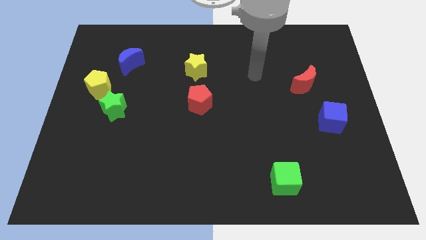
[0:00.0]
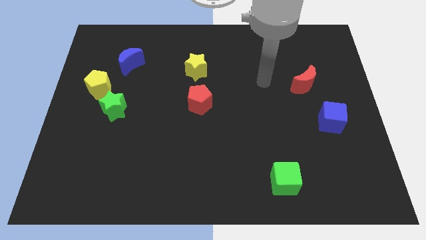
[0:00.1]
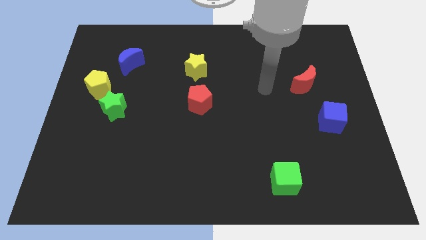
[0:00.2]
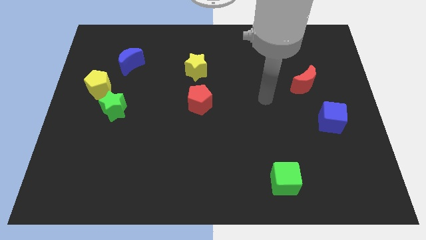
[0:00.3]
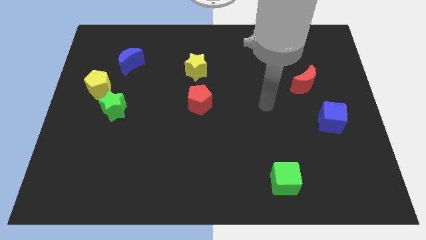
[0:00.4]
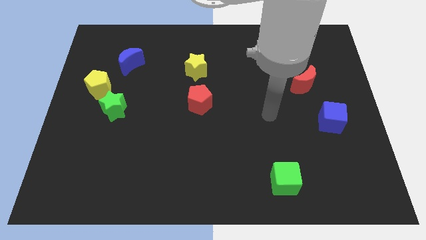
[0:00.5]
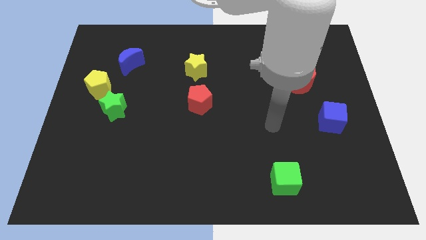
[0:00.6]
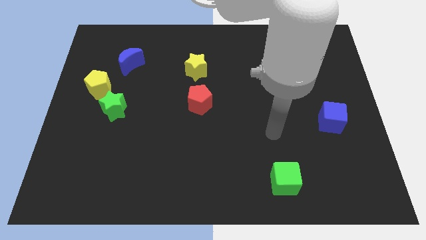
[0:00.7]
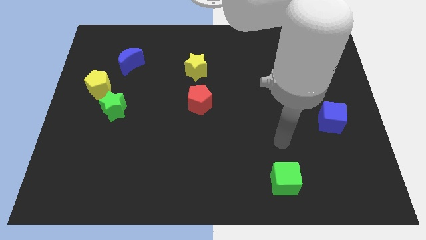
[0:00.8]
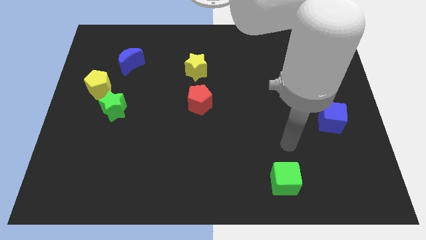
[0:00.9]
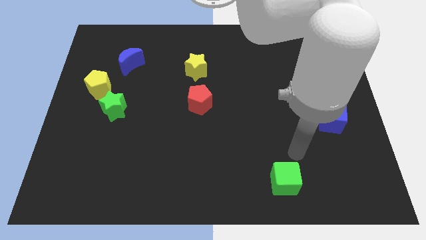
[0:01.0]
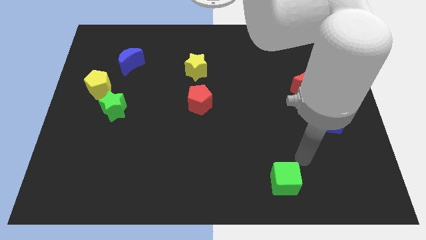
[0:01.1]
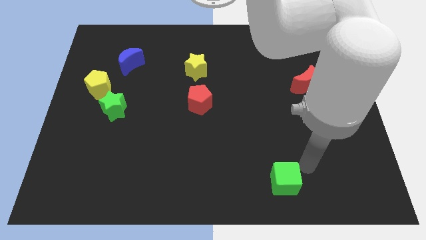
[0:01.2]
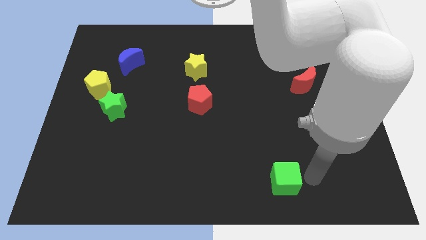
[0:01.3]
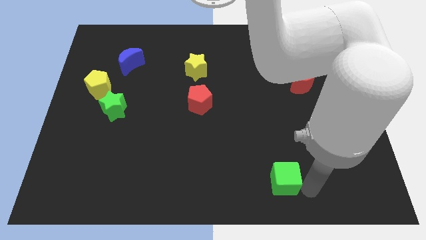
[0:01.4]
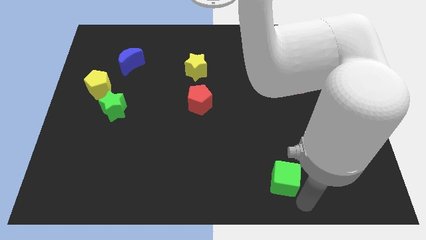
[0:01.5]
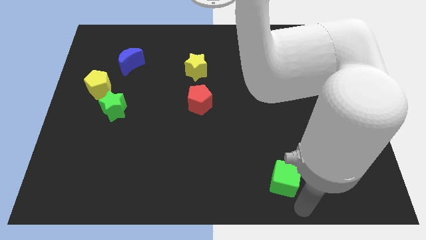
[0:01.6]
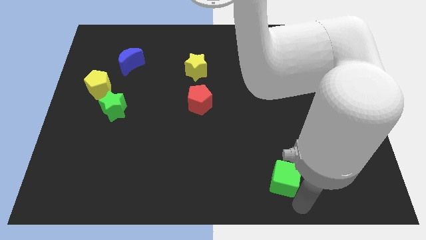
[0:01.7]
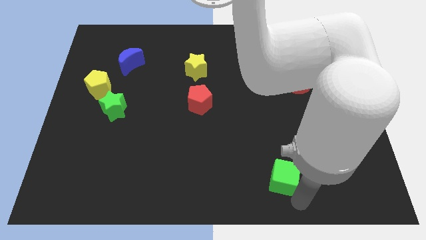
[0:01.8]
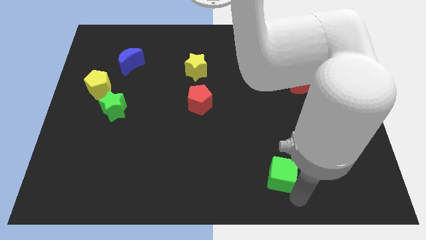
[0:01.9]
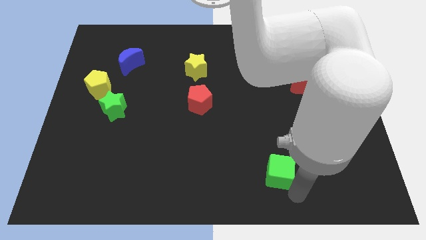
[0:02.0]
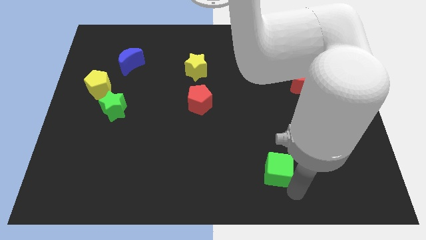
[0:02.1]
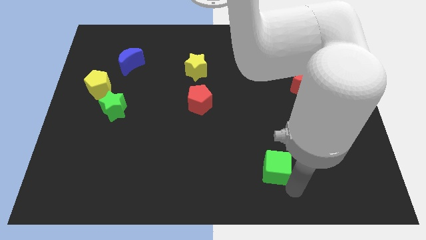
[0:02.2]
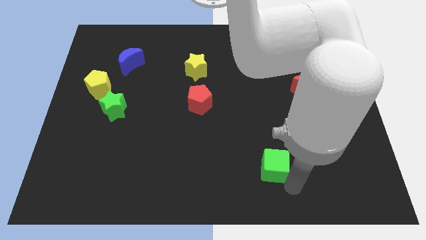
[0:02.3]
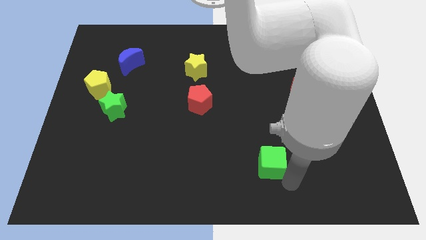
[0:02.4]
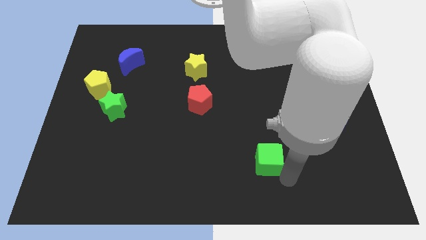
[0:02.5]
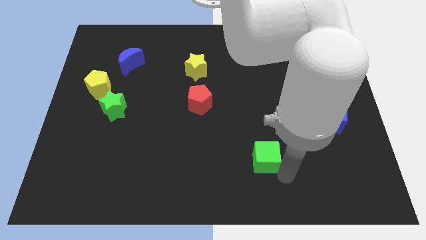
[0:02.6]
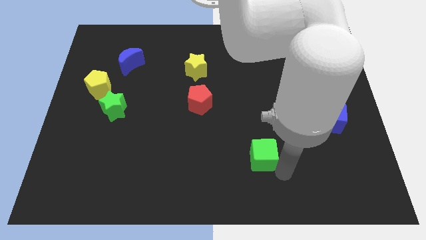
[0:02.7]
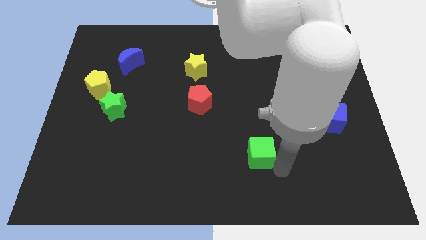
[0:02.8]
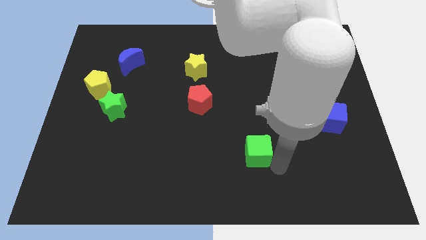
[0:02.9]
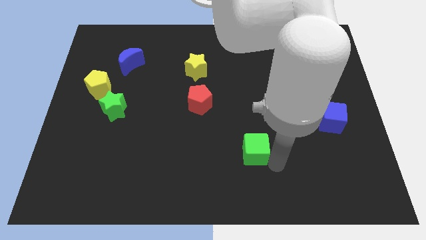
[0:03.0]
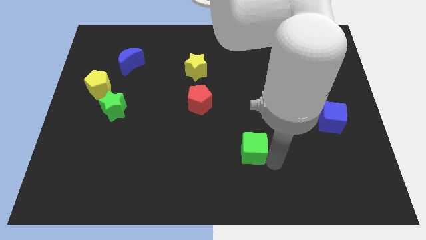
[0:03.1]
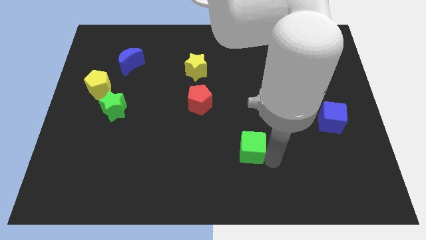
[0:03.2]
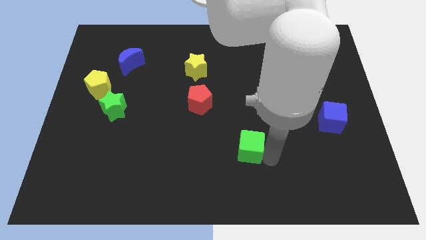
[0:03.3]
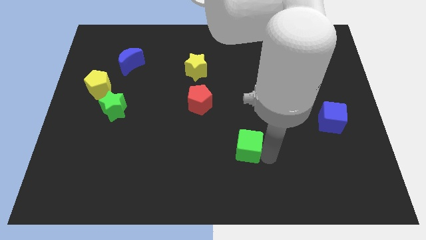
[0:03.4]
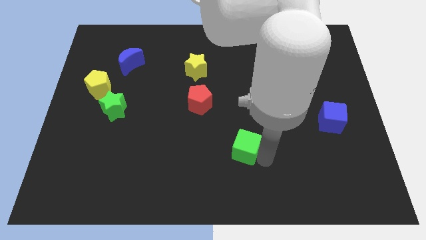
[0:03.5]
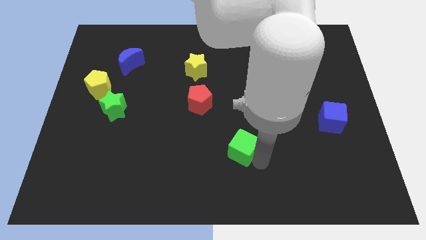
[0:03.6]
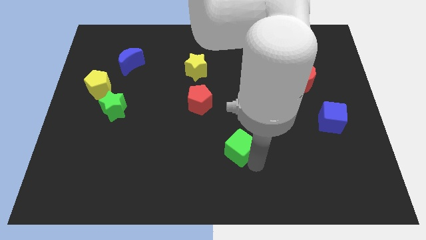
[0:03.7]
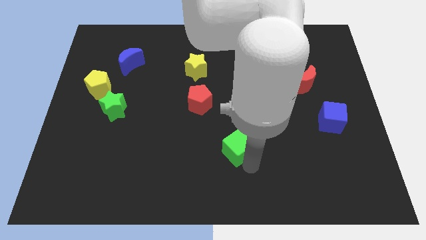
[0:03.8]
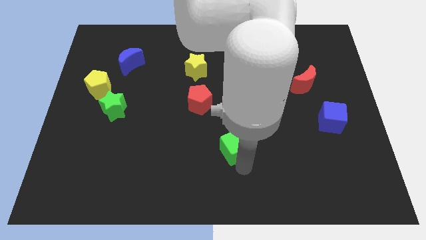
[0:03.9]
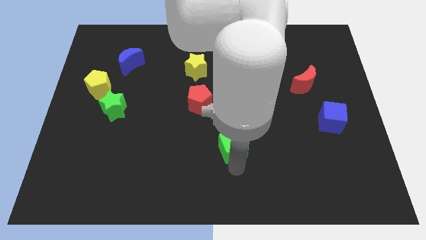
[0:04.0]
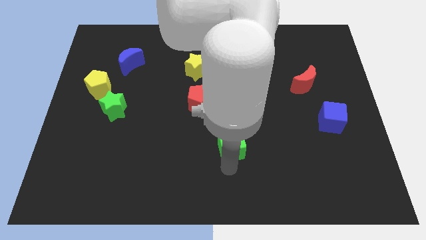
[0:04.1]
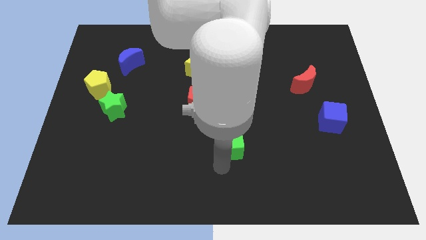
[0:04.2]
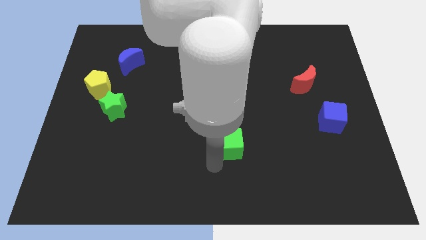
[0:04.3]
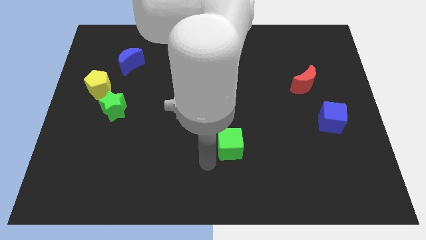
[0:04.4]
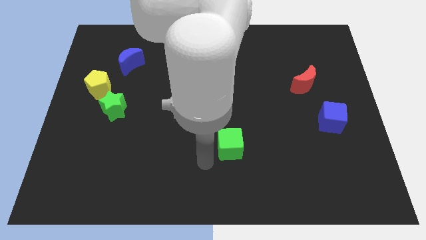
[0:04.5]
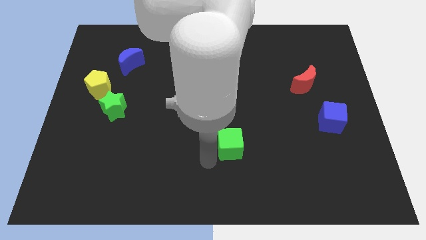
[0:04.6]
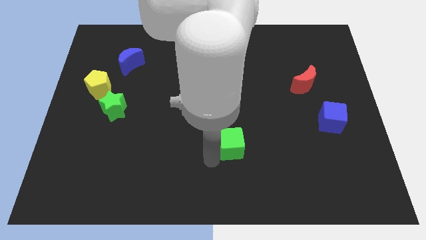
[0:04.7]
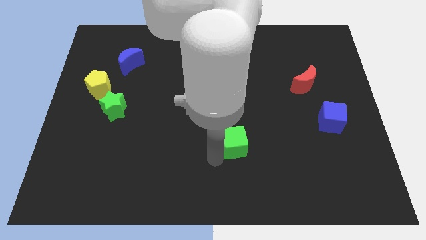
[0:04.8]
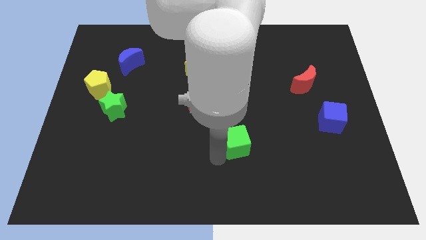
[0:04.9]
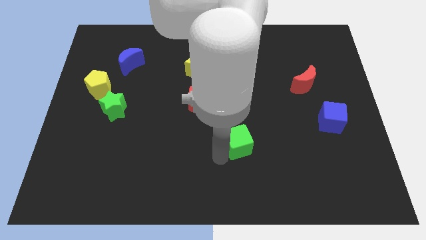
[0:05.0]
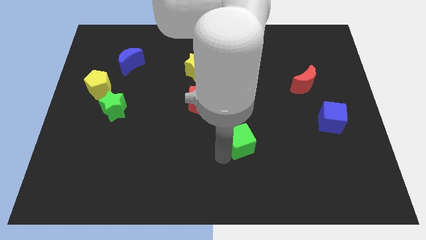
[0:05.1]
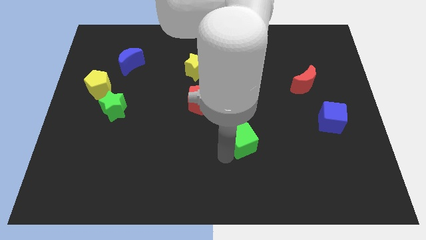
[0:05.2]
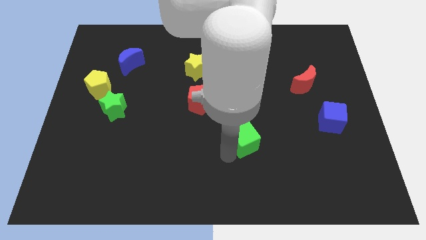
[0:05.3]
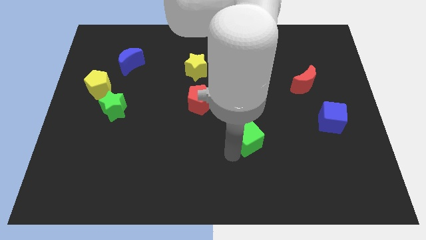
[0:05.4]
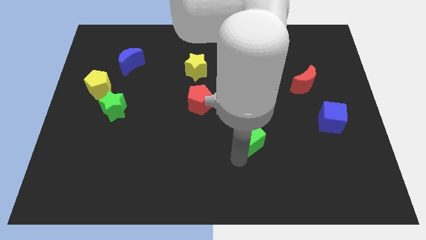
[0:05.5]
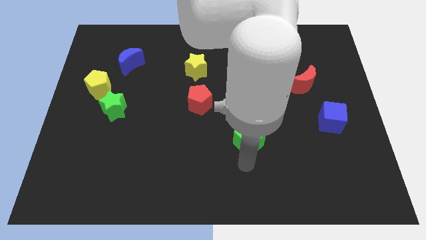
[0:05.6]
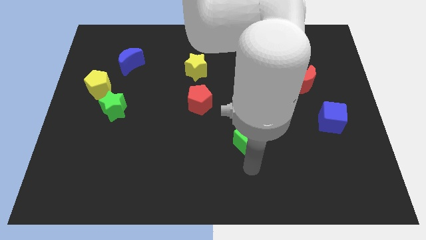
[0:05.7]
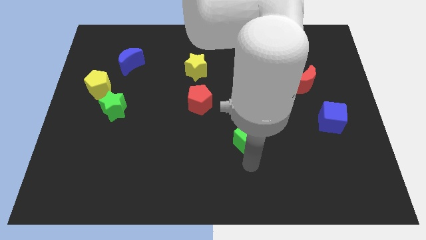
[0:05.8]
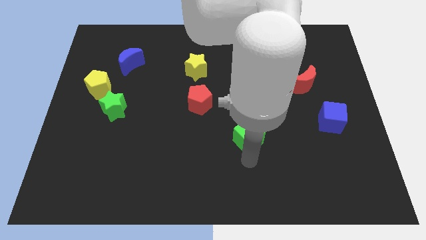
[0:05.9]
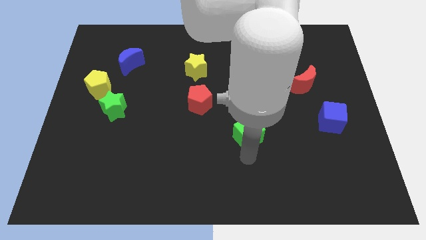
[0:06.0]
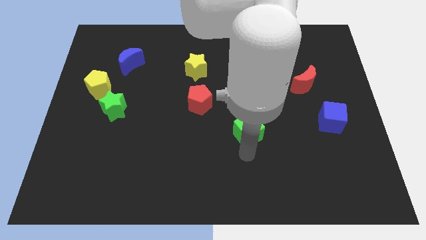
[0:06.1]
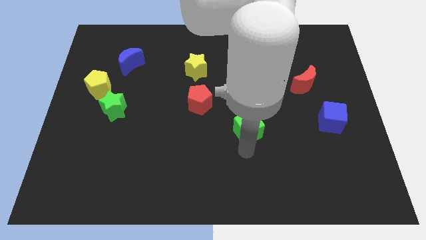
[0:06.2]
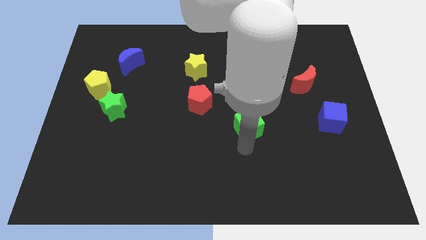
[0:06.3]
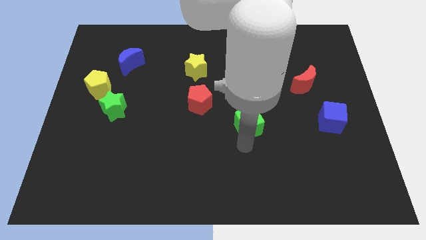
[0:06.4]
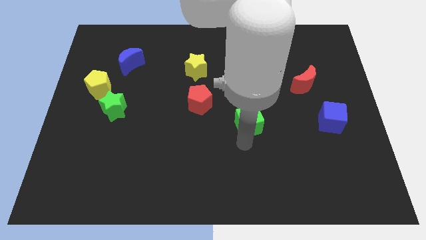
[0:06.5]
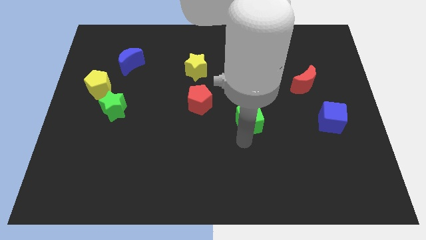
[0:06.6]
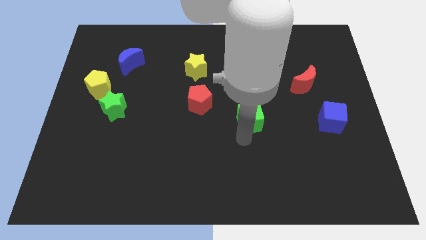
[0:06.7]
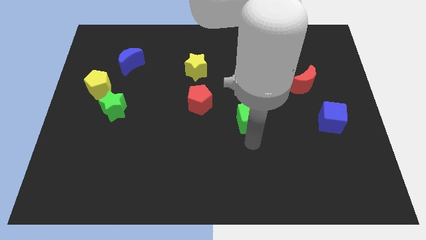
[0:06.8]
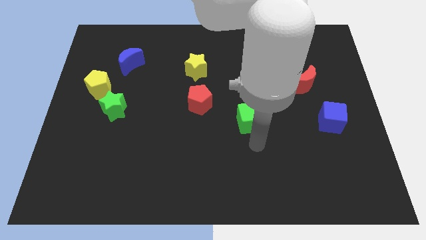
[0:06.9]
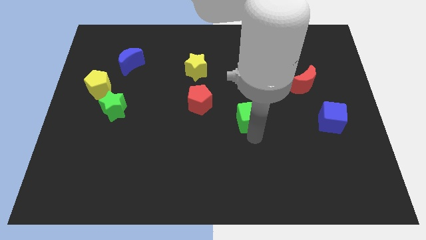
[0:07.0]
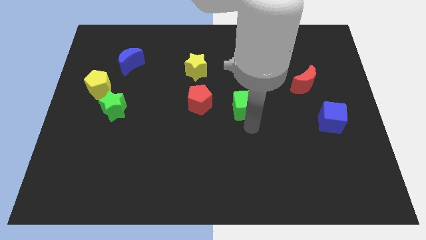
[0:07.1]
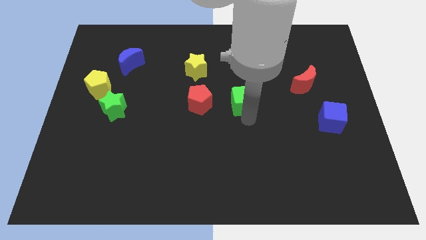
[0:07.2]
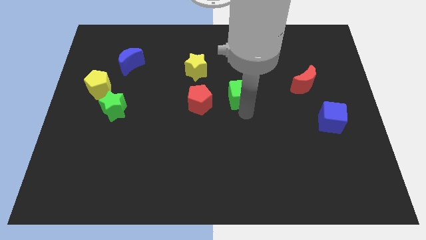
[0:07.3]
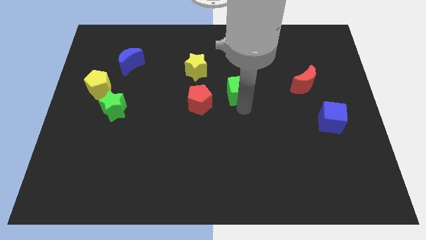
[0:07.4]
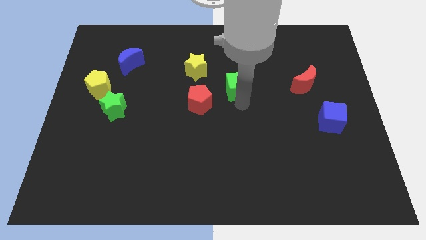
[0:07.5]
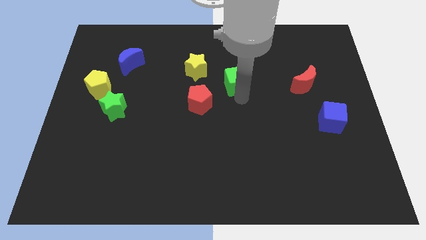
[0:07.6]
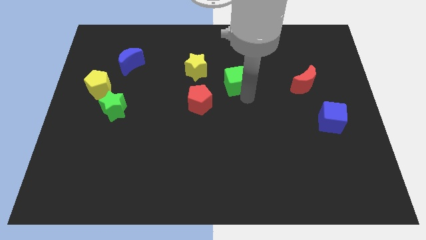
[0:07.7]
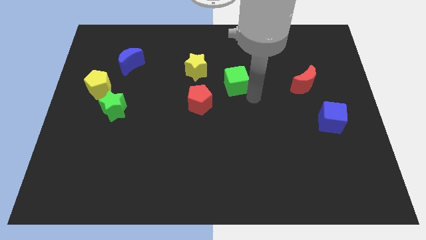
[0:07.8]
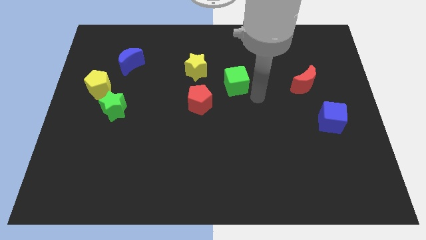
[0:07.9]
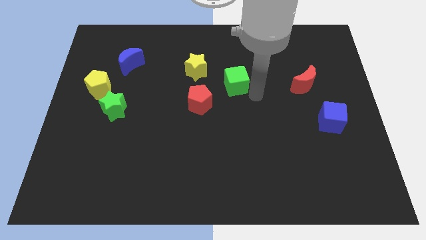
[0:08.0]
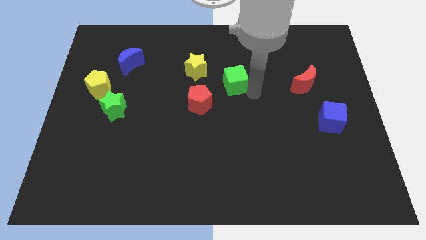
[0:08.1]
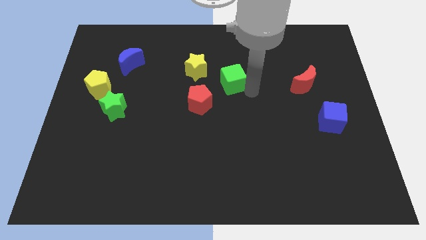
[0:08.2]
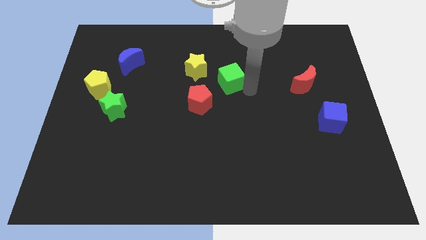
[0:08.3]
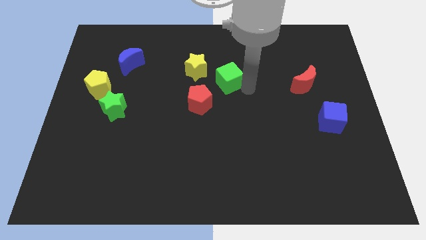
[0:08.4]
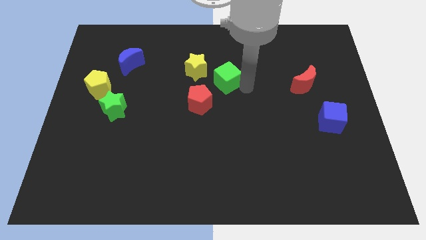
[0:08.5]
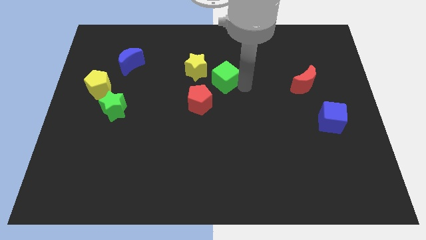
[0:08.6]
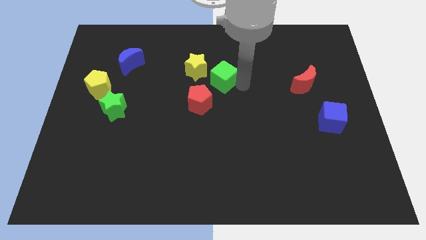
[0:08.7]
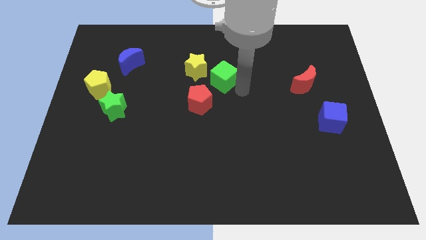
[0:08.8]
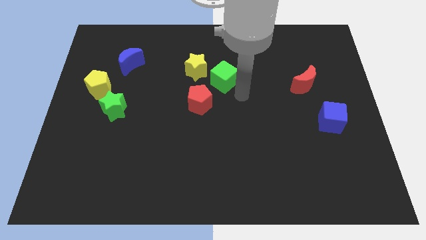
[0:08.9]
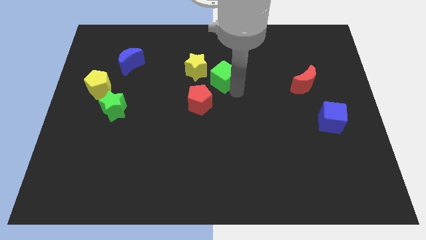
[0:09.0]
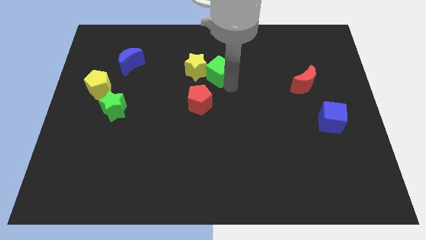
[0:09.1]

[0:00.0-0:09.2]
push the green cube above the red pentagon
